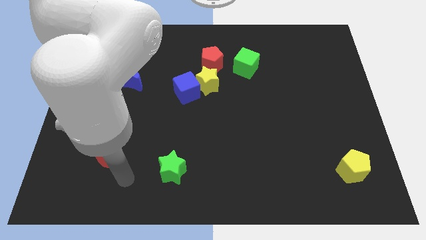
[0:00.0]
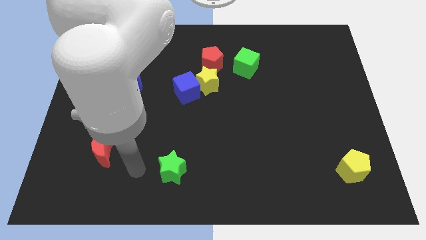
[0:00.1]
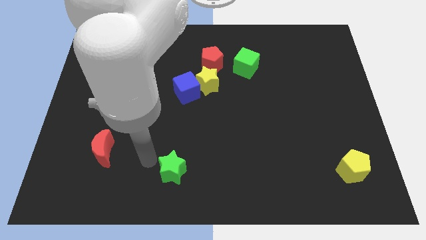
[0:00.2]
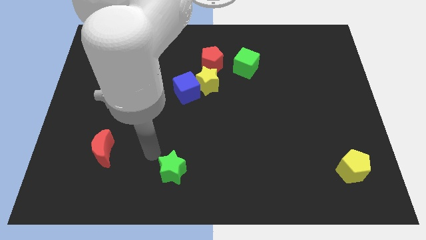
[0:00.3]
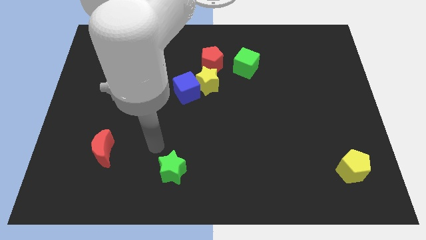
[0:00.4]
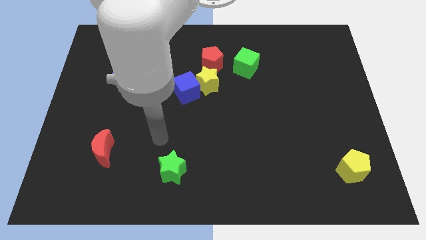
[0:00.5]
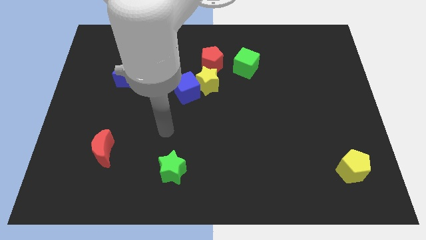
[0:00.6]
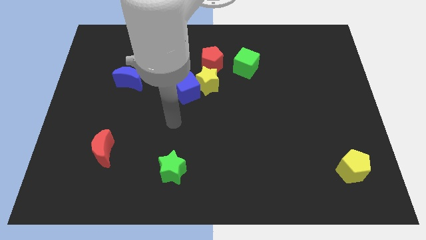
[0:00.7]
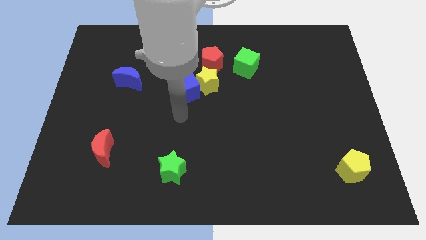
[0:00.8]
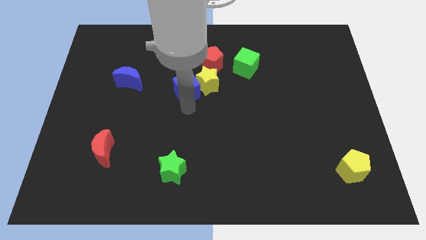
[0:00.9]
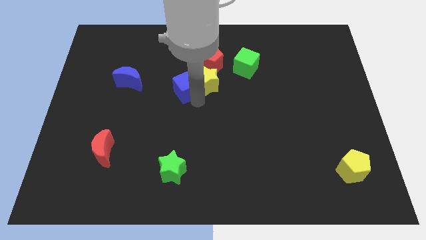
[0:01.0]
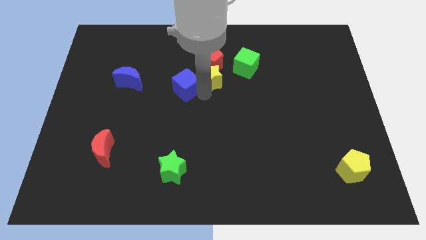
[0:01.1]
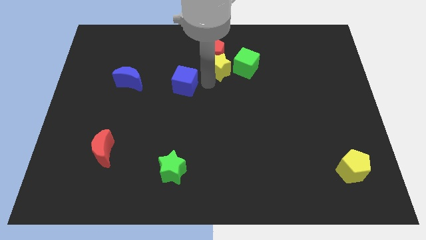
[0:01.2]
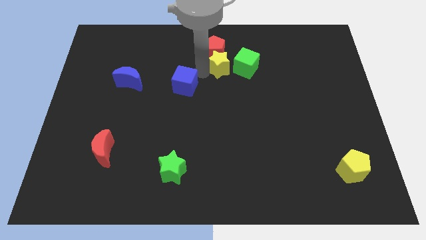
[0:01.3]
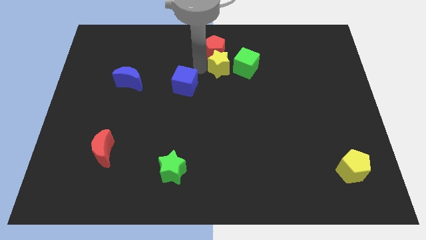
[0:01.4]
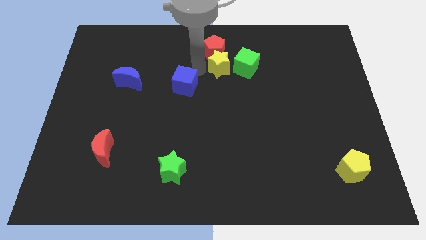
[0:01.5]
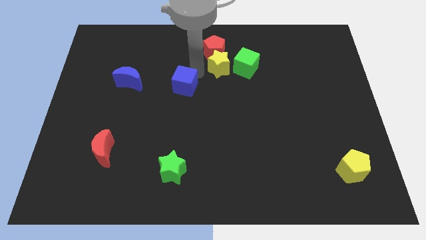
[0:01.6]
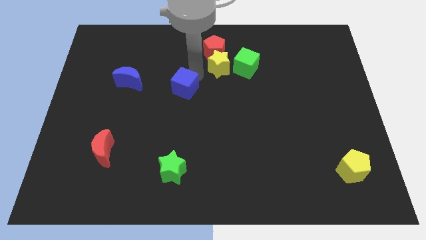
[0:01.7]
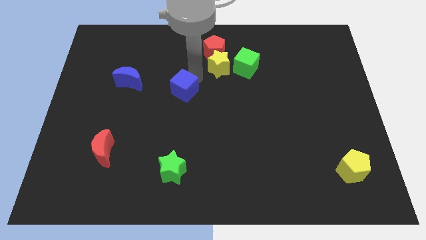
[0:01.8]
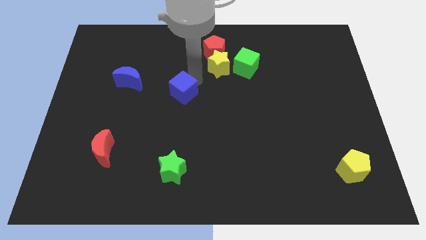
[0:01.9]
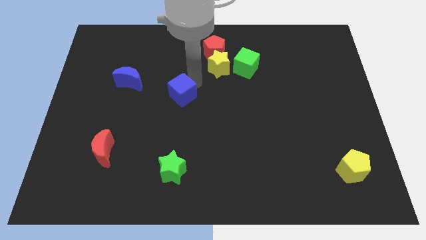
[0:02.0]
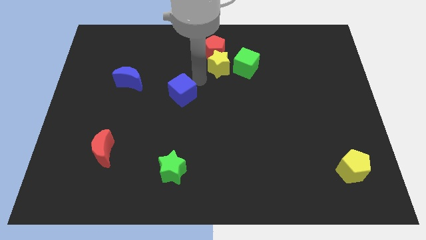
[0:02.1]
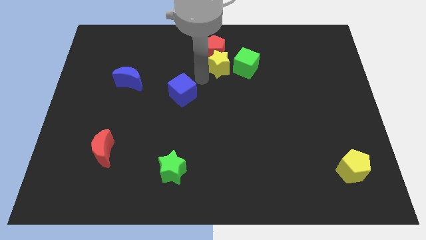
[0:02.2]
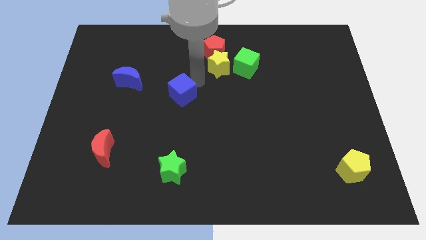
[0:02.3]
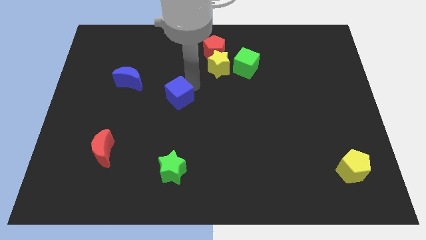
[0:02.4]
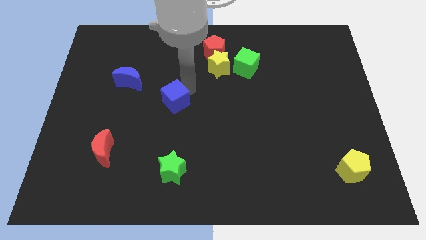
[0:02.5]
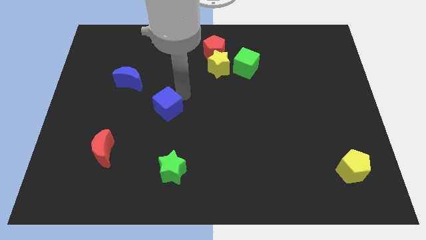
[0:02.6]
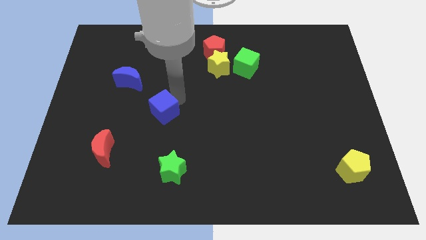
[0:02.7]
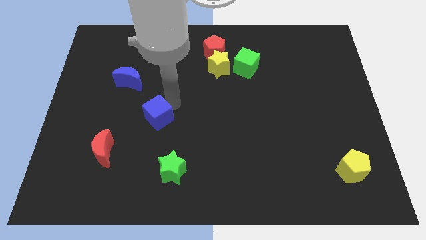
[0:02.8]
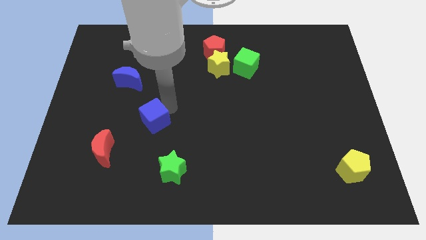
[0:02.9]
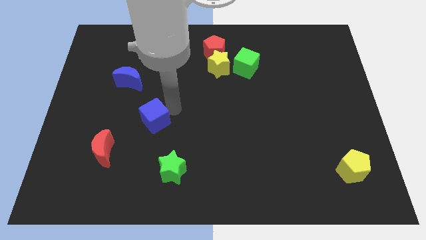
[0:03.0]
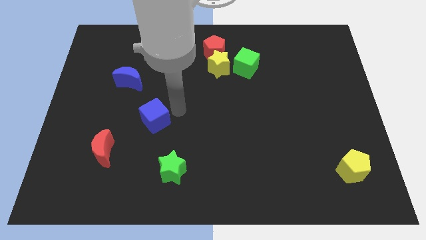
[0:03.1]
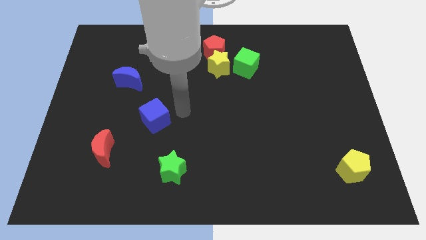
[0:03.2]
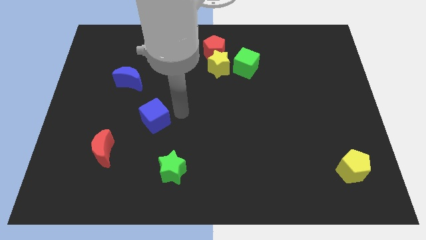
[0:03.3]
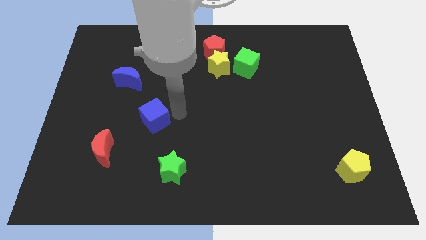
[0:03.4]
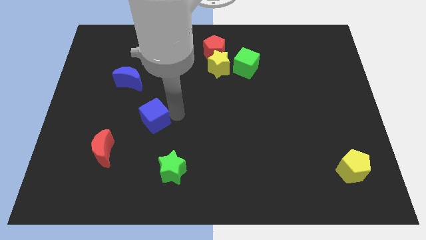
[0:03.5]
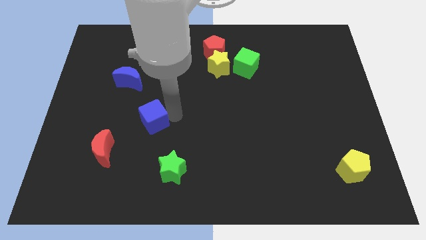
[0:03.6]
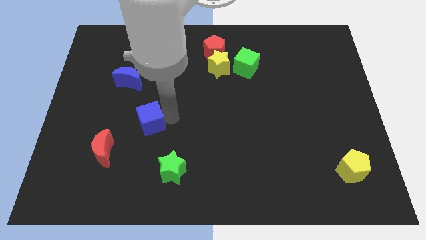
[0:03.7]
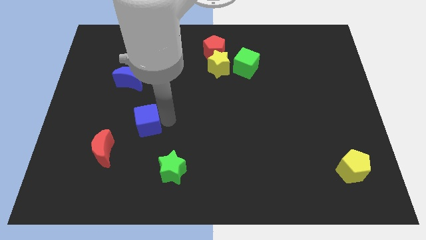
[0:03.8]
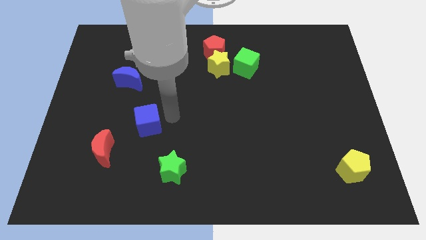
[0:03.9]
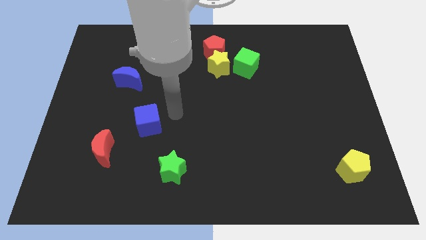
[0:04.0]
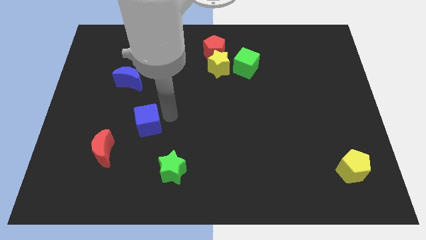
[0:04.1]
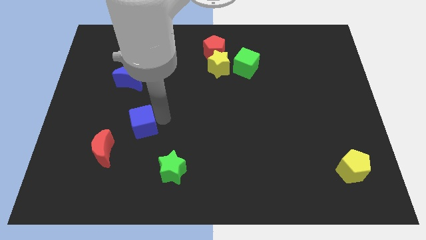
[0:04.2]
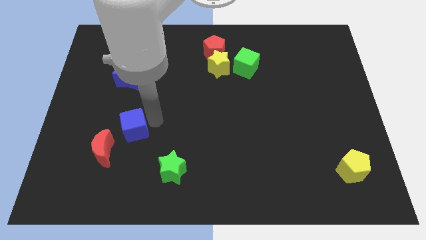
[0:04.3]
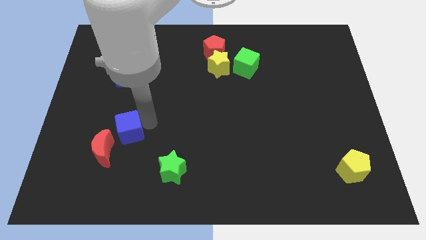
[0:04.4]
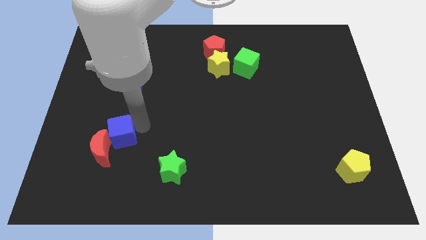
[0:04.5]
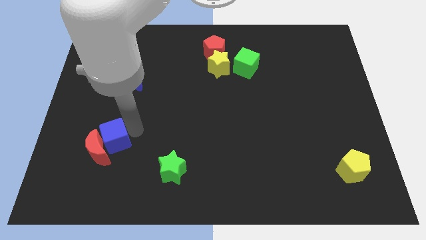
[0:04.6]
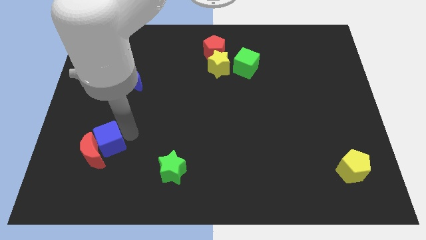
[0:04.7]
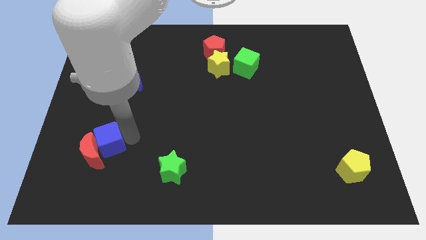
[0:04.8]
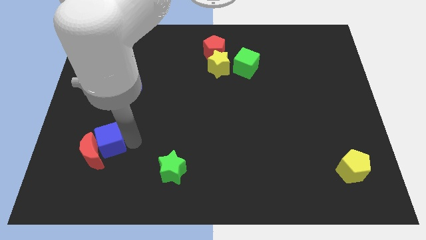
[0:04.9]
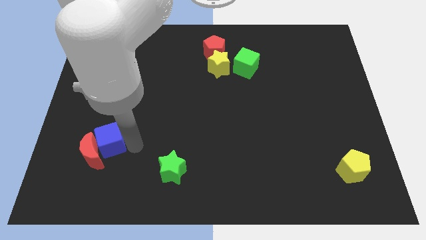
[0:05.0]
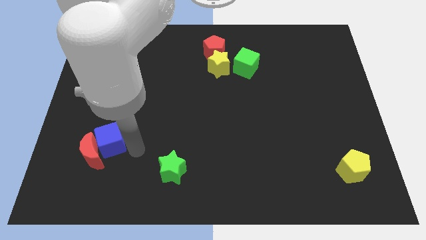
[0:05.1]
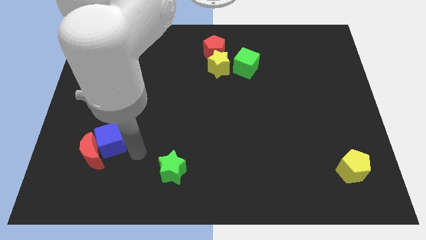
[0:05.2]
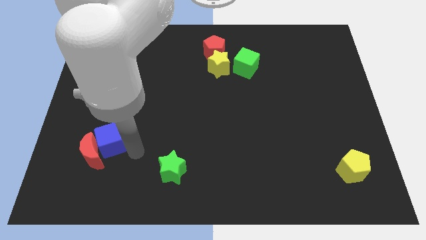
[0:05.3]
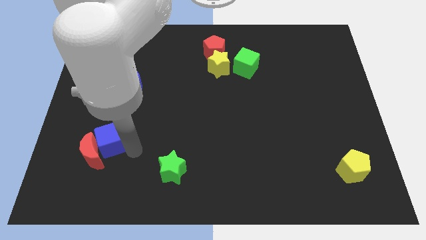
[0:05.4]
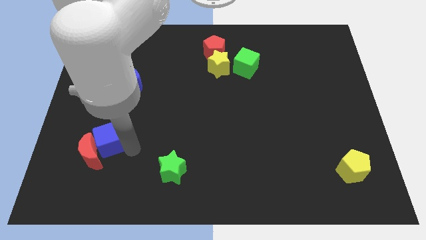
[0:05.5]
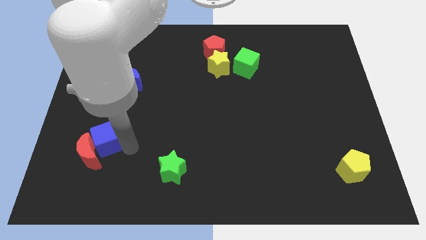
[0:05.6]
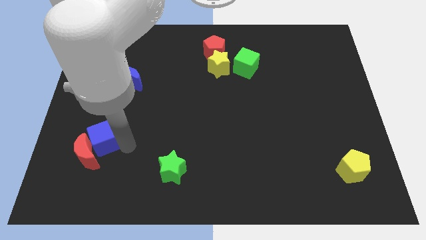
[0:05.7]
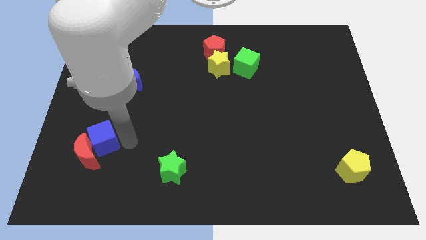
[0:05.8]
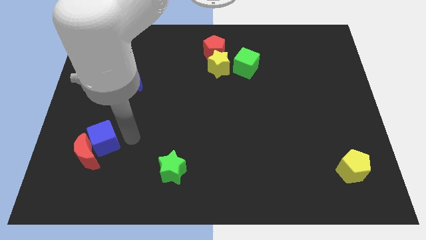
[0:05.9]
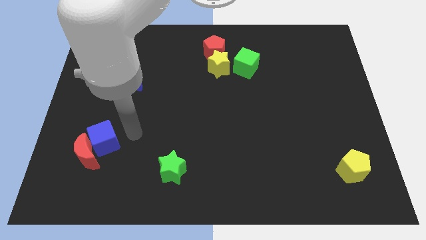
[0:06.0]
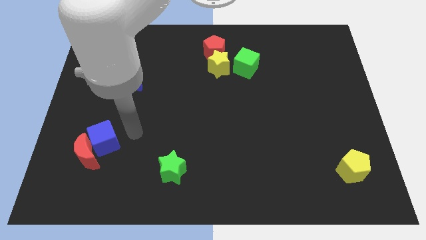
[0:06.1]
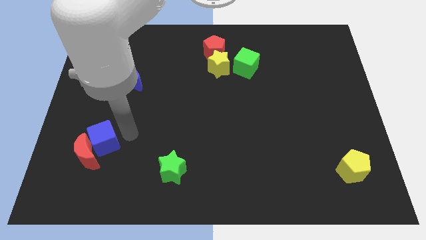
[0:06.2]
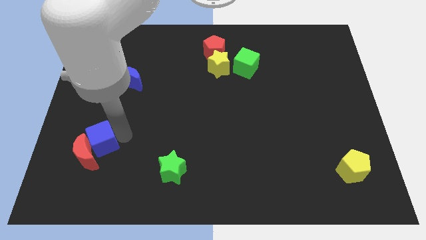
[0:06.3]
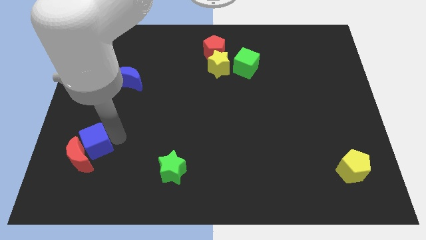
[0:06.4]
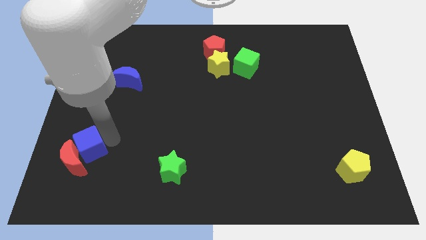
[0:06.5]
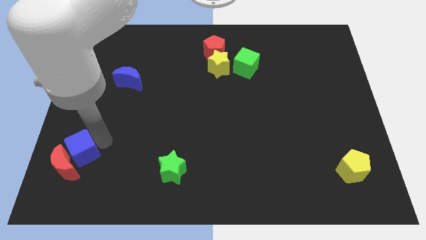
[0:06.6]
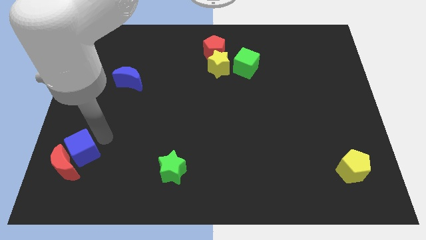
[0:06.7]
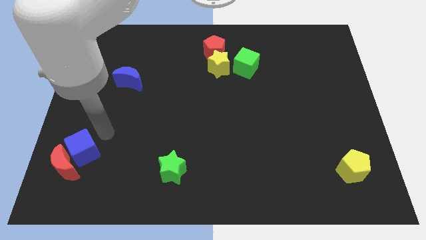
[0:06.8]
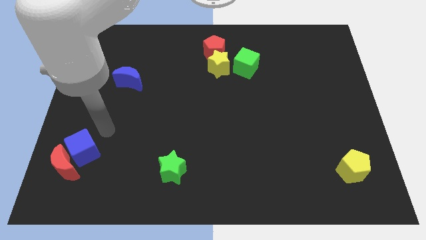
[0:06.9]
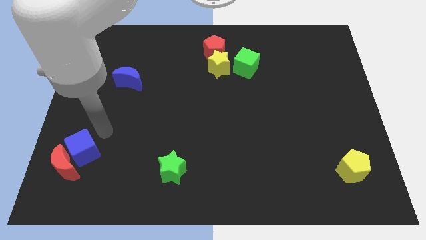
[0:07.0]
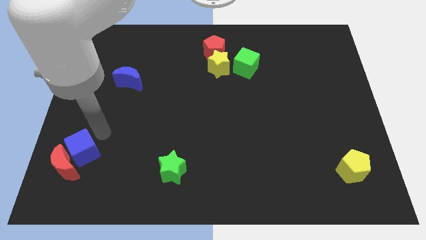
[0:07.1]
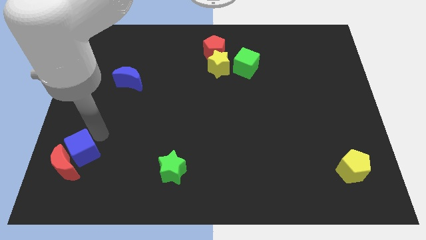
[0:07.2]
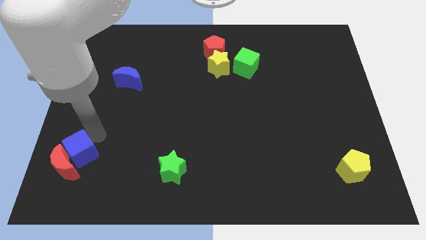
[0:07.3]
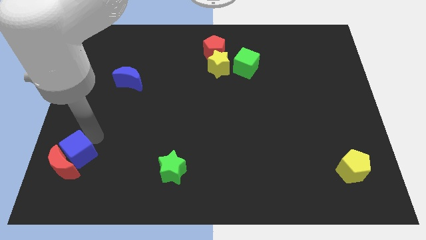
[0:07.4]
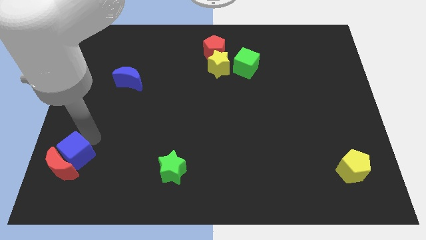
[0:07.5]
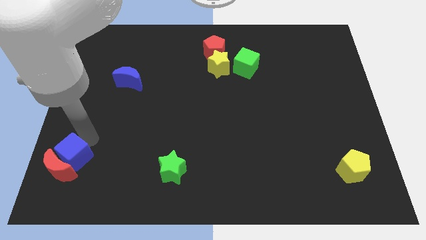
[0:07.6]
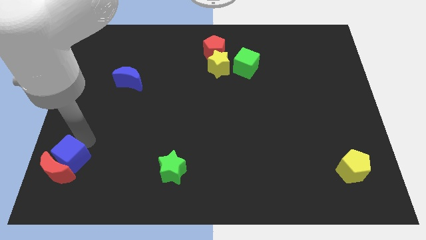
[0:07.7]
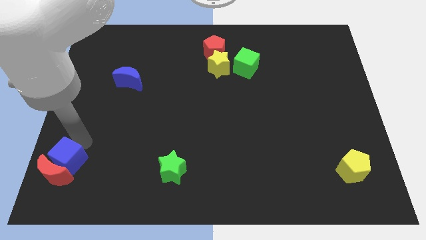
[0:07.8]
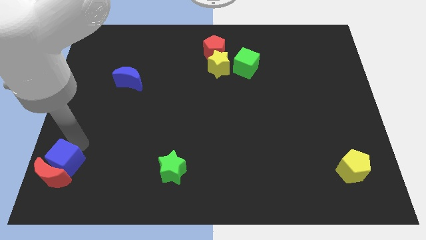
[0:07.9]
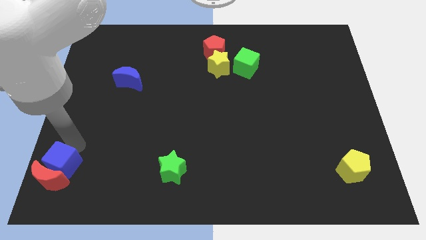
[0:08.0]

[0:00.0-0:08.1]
put the blue cube to the bottom left
